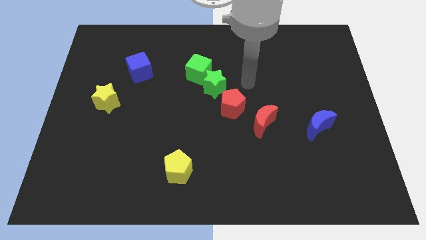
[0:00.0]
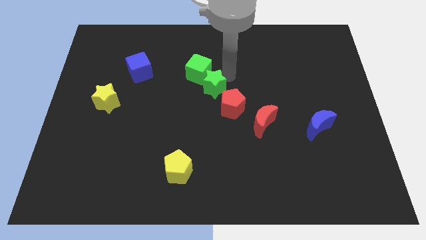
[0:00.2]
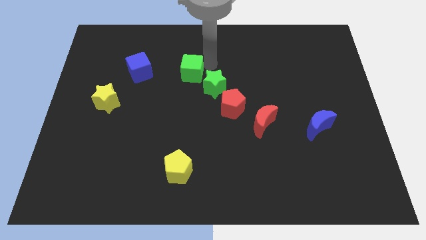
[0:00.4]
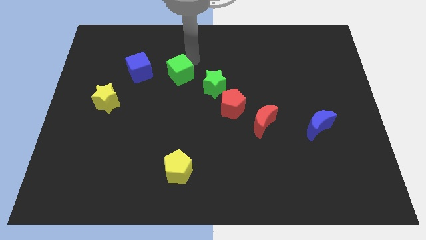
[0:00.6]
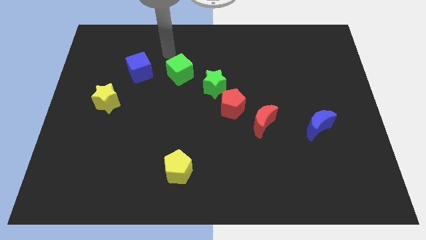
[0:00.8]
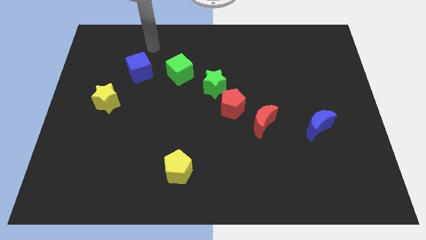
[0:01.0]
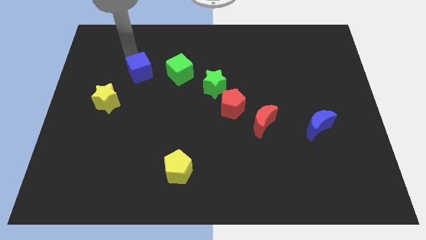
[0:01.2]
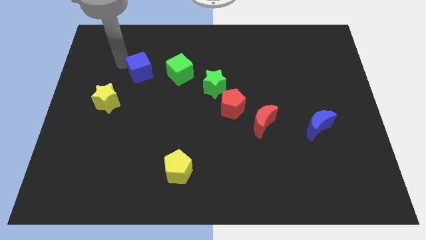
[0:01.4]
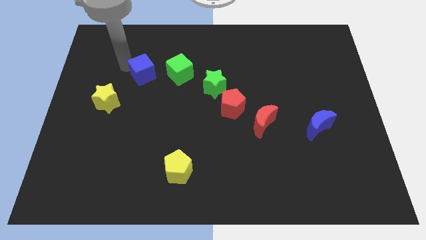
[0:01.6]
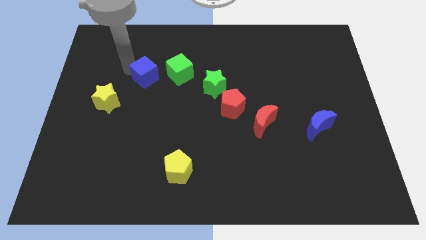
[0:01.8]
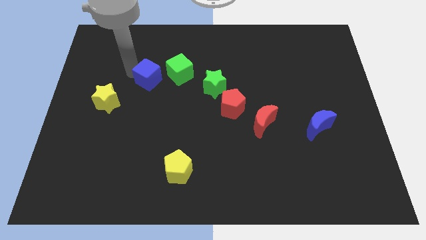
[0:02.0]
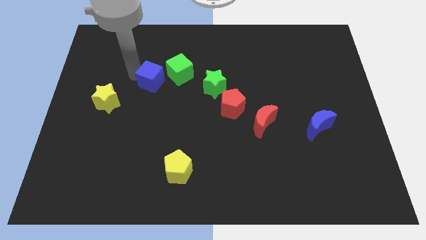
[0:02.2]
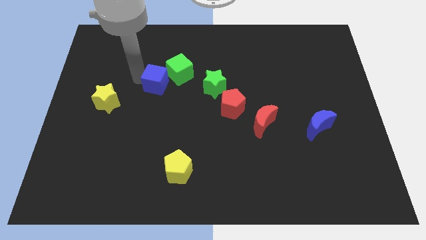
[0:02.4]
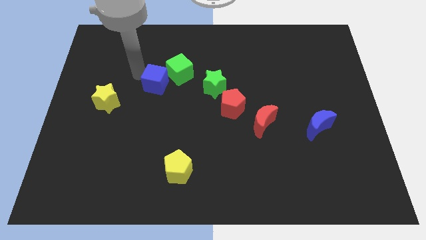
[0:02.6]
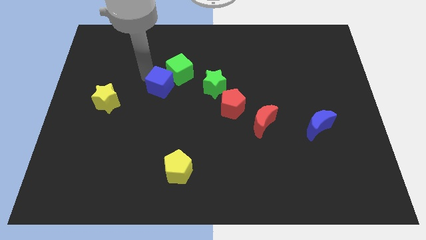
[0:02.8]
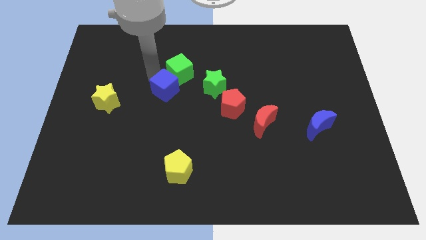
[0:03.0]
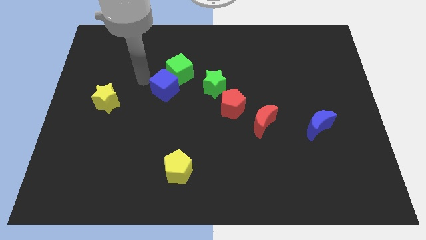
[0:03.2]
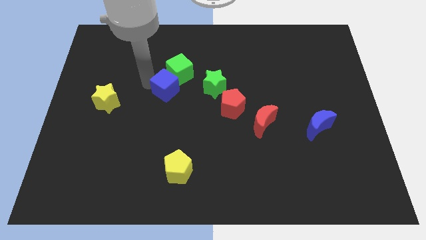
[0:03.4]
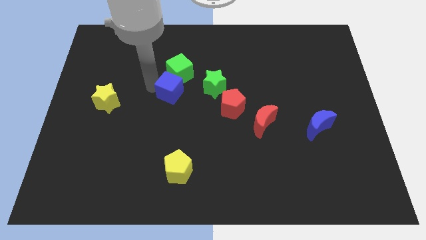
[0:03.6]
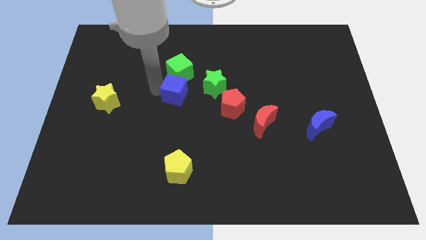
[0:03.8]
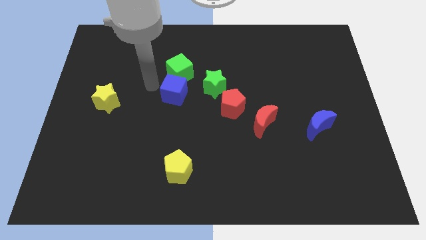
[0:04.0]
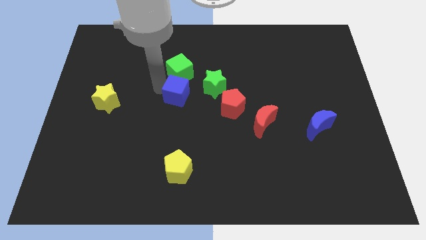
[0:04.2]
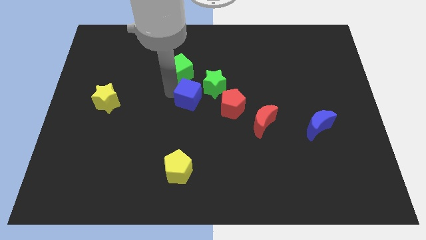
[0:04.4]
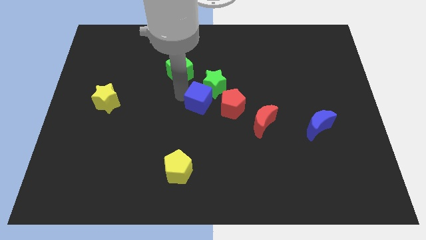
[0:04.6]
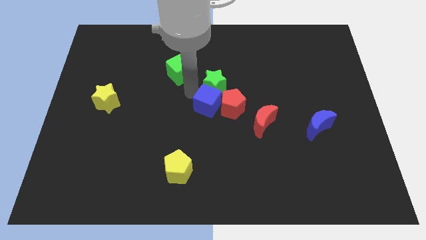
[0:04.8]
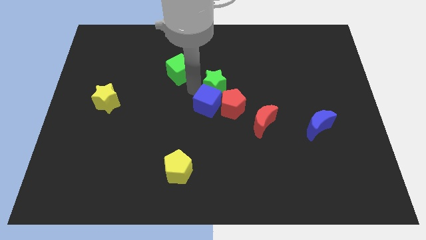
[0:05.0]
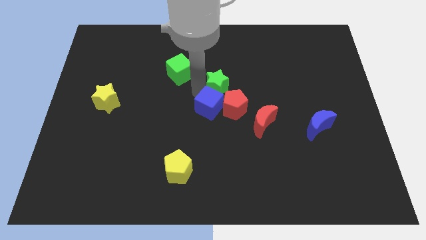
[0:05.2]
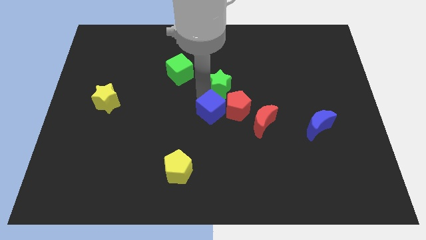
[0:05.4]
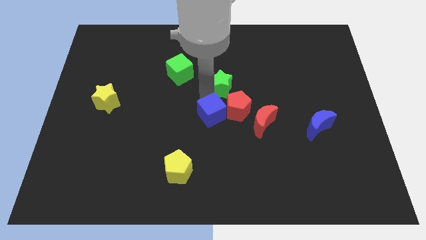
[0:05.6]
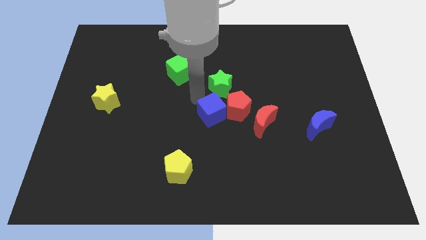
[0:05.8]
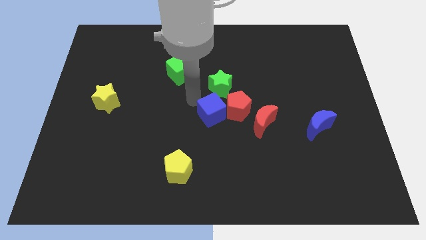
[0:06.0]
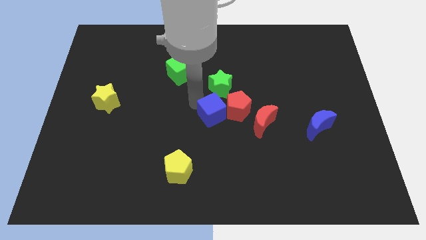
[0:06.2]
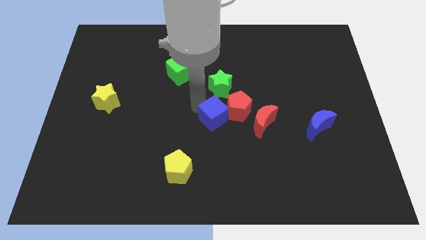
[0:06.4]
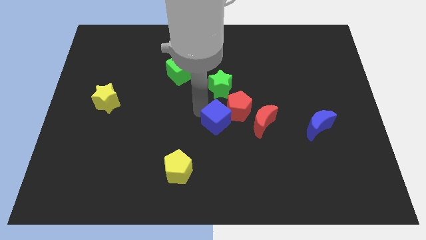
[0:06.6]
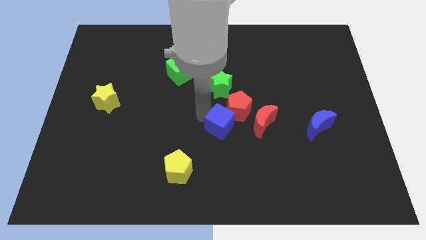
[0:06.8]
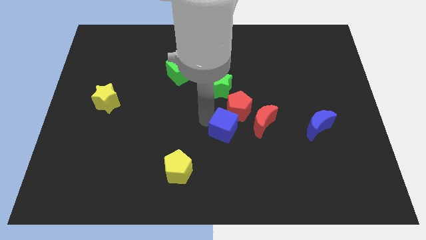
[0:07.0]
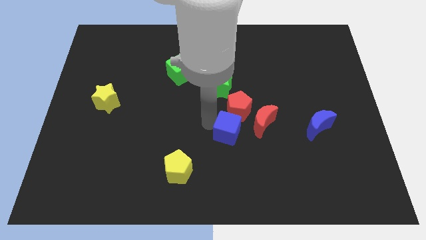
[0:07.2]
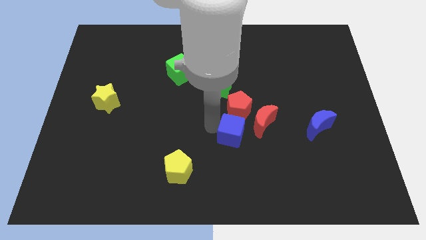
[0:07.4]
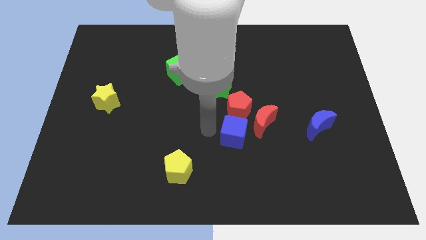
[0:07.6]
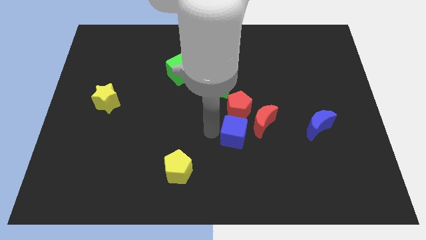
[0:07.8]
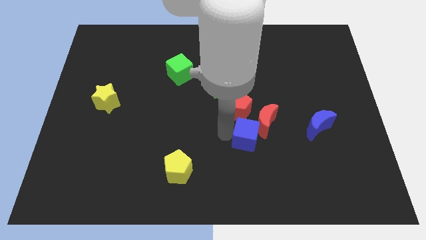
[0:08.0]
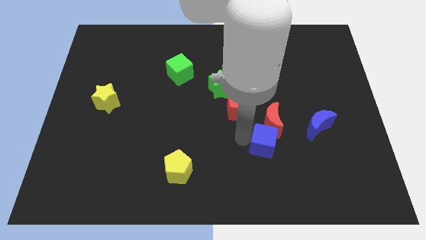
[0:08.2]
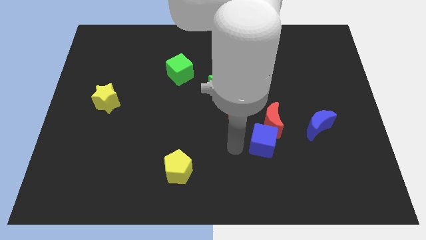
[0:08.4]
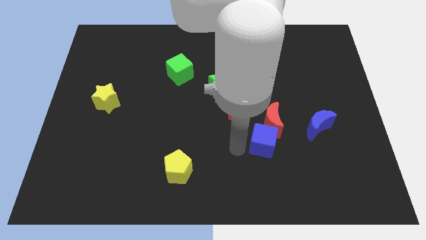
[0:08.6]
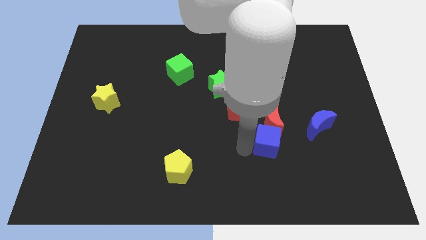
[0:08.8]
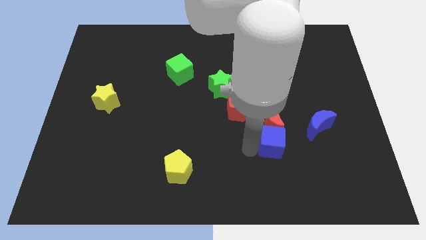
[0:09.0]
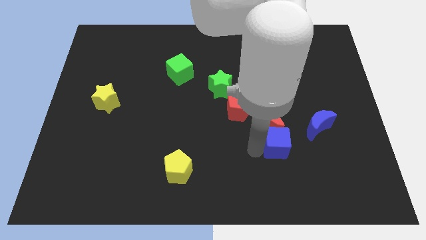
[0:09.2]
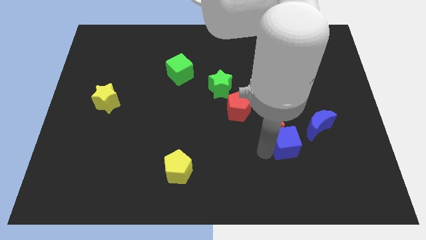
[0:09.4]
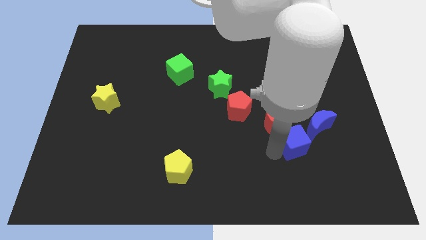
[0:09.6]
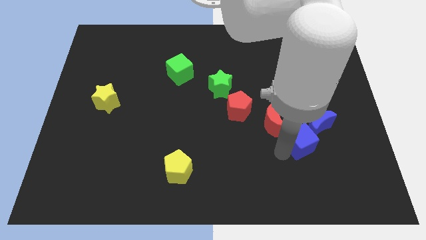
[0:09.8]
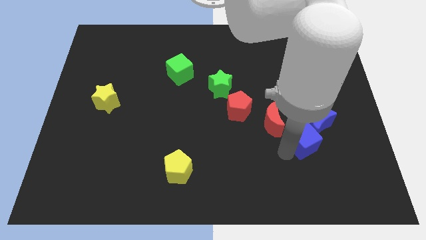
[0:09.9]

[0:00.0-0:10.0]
move the blue cube close to the blue moon

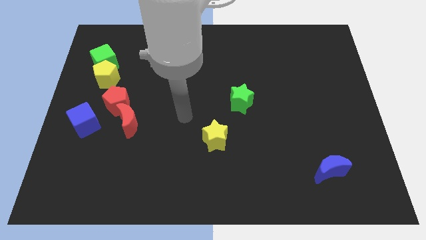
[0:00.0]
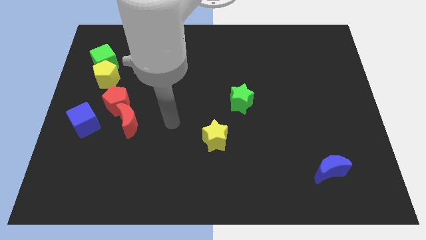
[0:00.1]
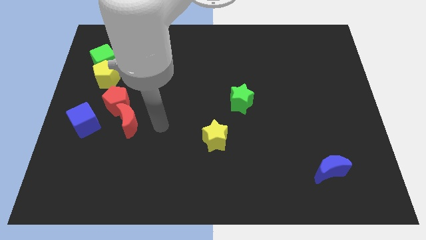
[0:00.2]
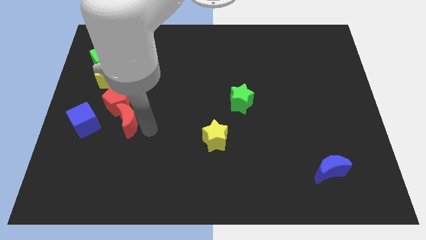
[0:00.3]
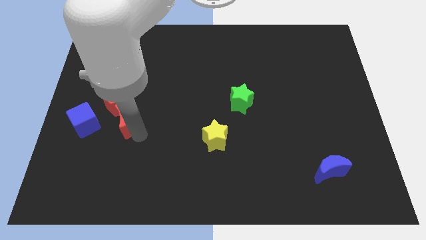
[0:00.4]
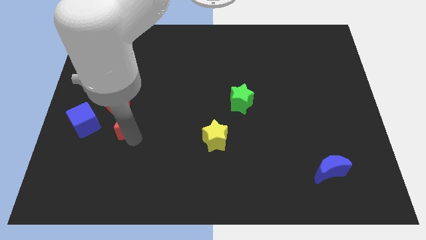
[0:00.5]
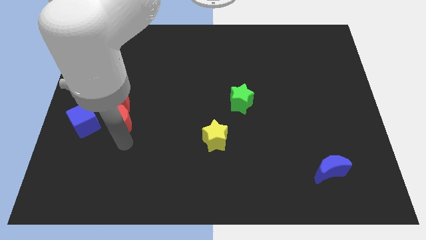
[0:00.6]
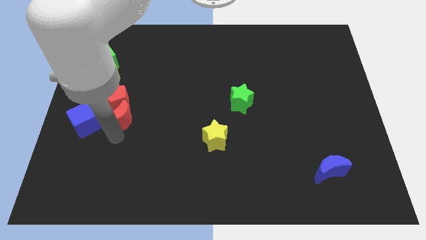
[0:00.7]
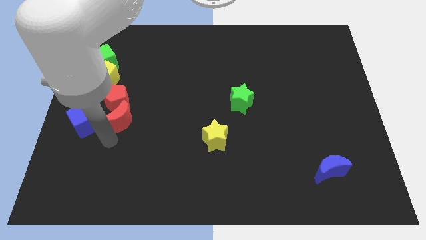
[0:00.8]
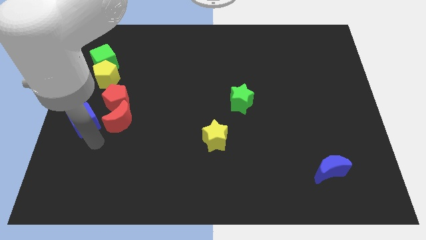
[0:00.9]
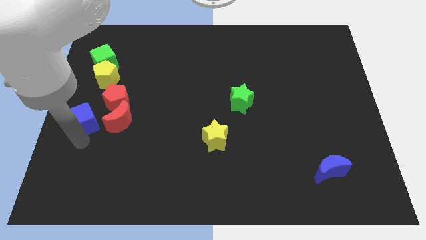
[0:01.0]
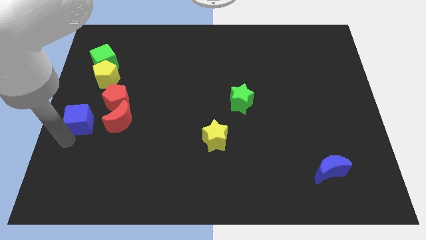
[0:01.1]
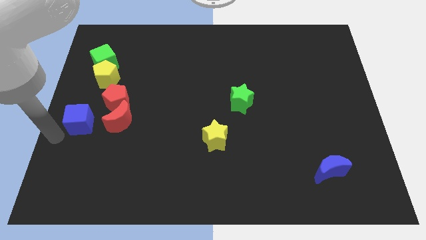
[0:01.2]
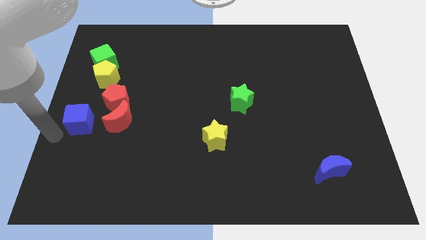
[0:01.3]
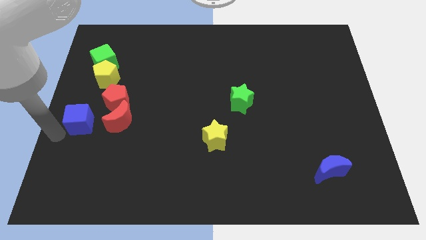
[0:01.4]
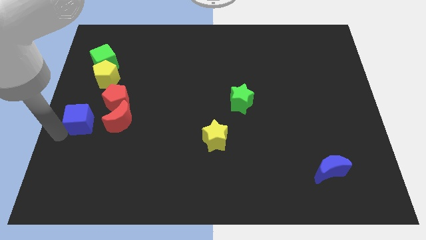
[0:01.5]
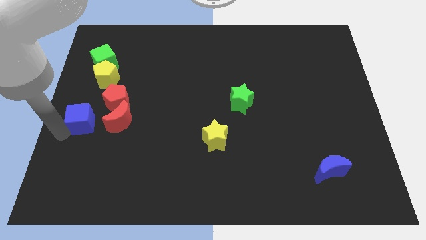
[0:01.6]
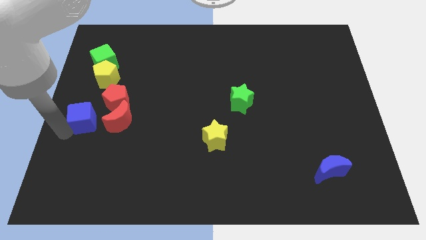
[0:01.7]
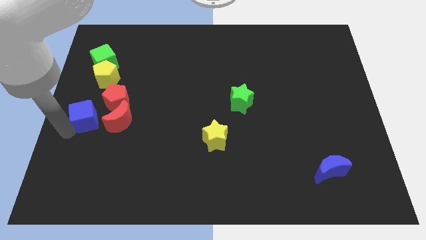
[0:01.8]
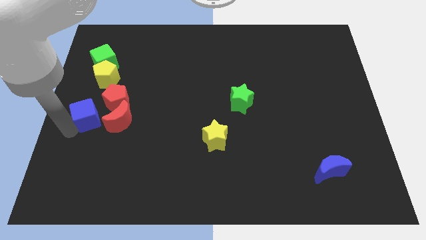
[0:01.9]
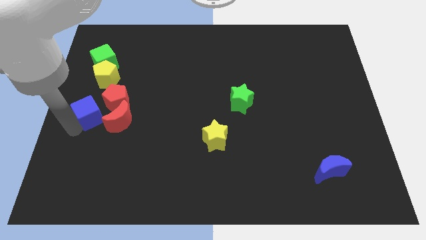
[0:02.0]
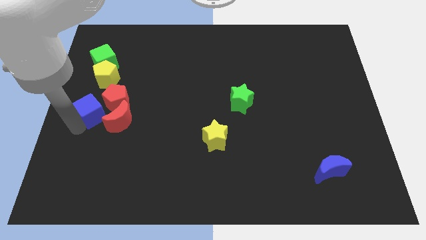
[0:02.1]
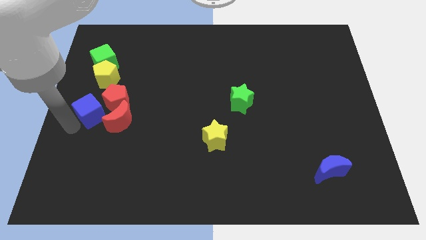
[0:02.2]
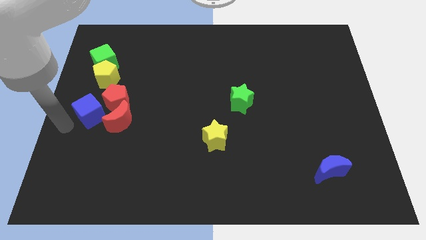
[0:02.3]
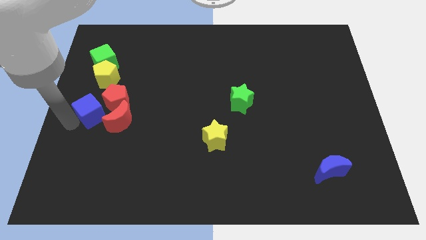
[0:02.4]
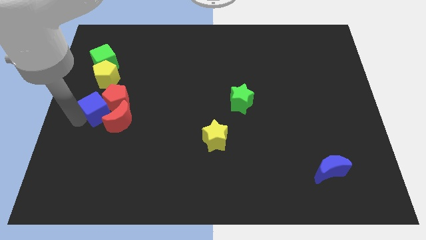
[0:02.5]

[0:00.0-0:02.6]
slide the blue cube next to the red pentagon

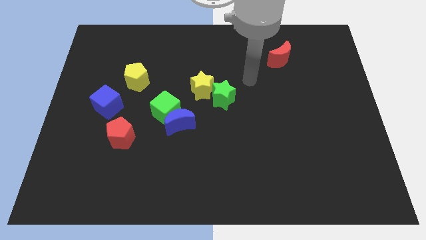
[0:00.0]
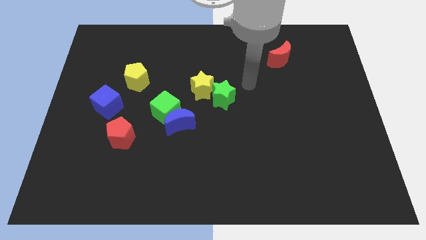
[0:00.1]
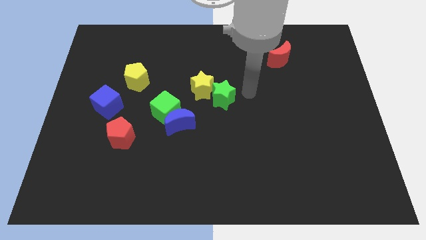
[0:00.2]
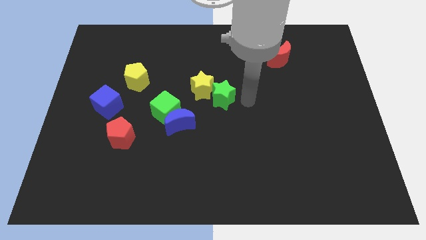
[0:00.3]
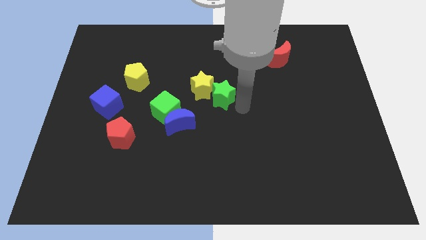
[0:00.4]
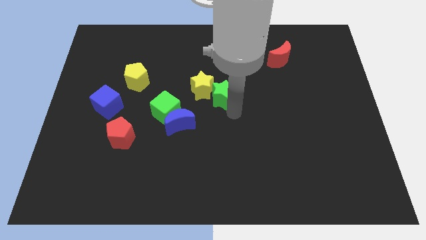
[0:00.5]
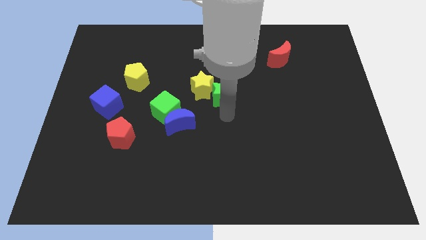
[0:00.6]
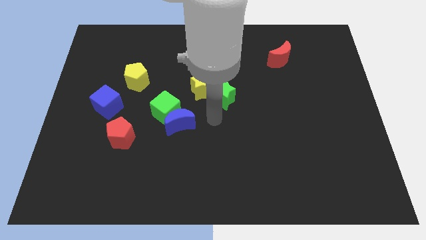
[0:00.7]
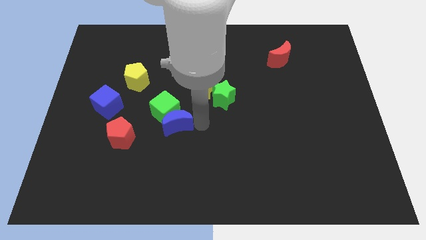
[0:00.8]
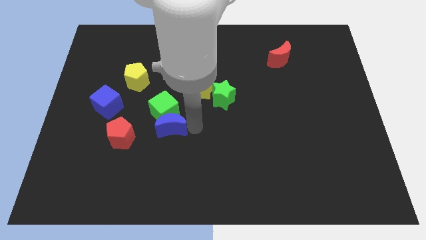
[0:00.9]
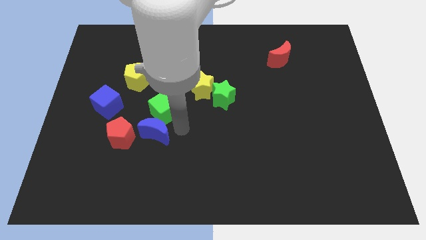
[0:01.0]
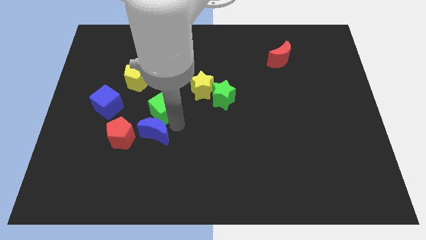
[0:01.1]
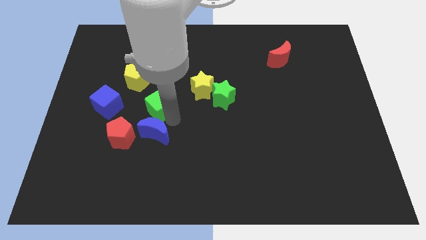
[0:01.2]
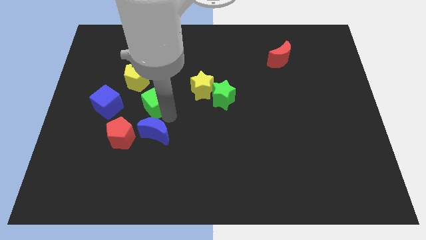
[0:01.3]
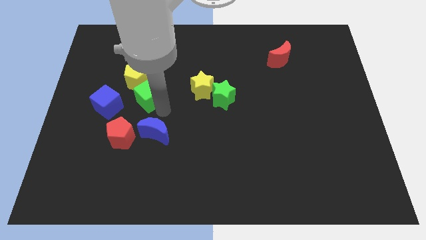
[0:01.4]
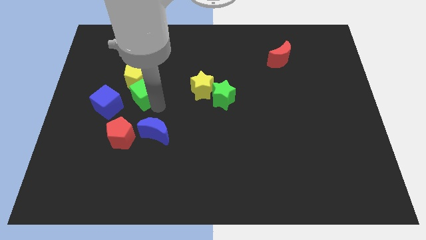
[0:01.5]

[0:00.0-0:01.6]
put the green cube close to the yellow pentagon
